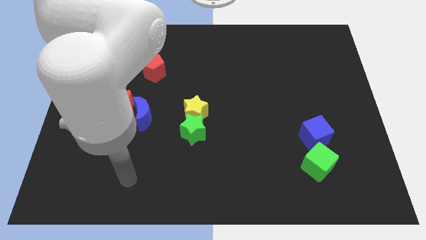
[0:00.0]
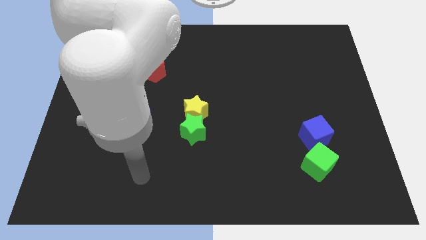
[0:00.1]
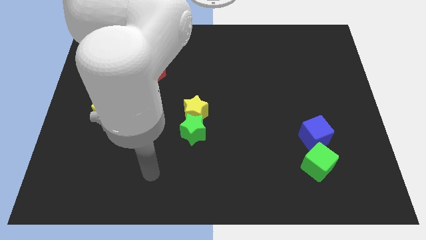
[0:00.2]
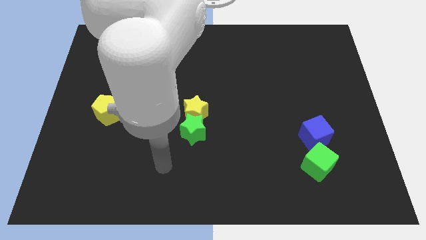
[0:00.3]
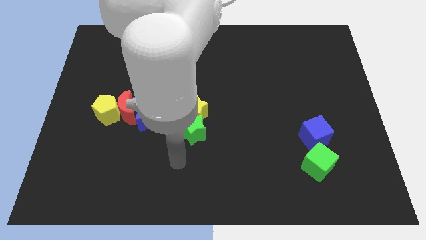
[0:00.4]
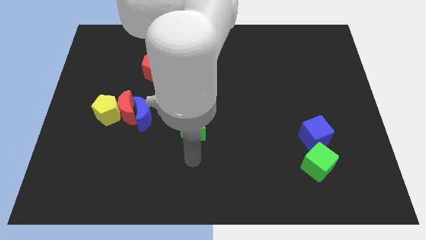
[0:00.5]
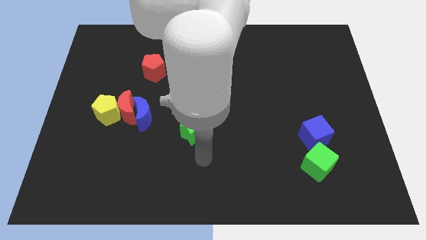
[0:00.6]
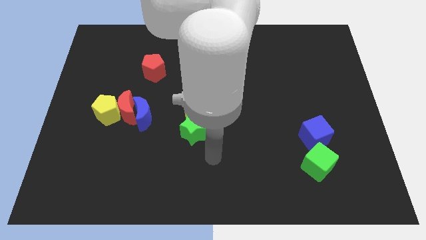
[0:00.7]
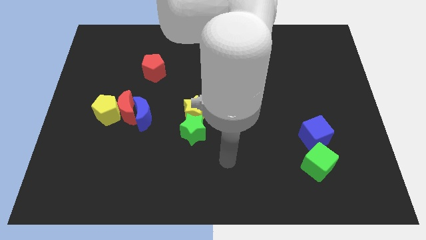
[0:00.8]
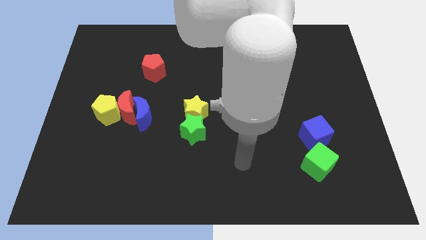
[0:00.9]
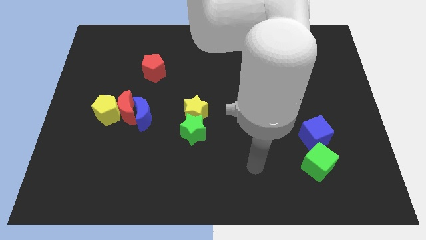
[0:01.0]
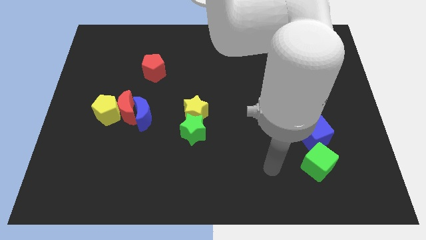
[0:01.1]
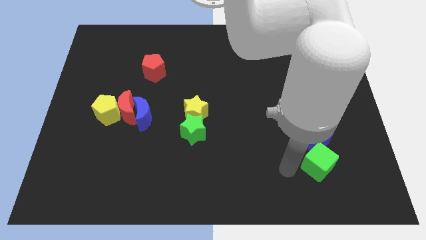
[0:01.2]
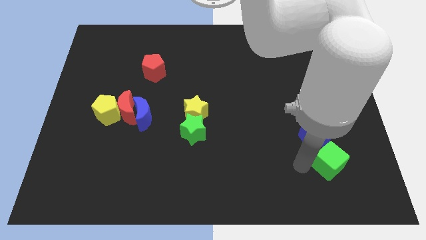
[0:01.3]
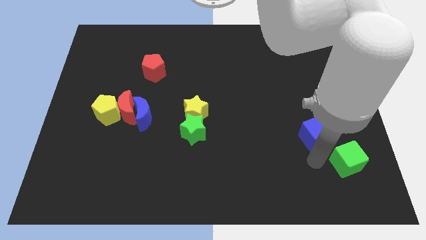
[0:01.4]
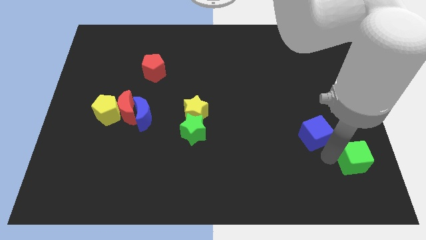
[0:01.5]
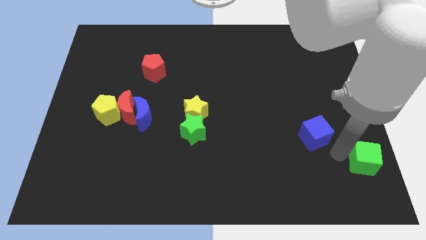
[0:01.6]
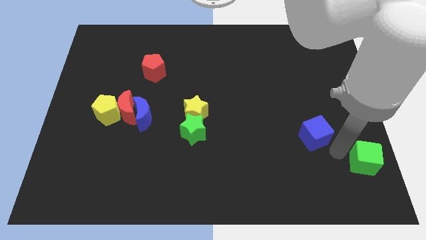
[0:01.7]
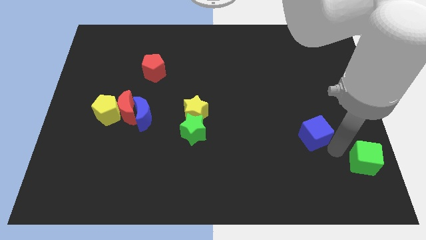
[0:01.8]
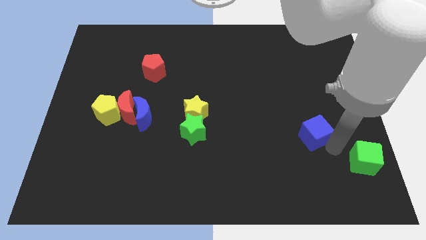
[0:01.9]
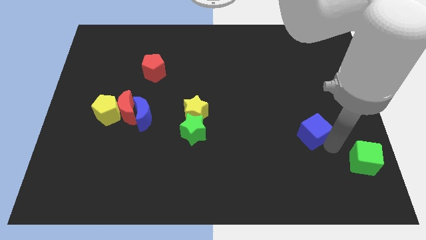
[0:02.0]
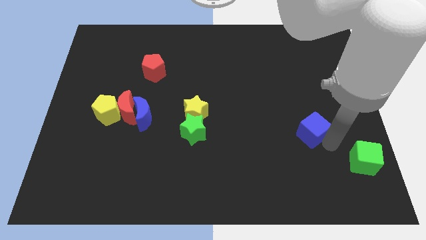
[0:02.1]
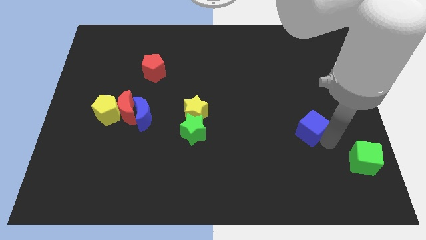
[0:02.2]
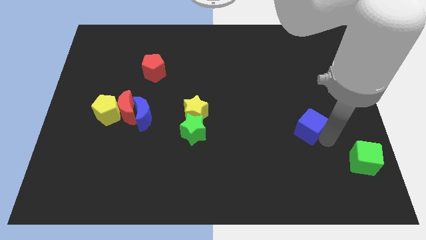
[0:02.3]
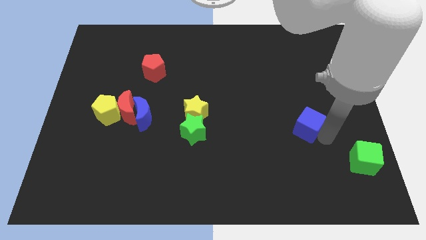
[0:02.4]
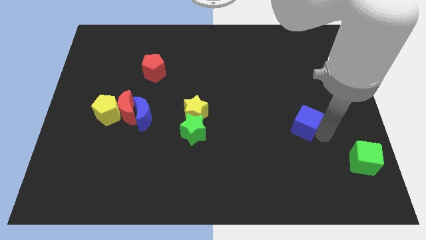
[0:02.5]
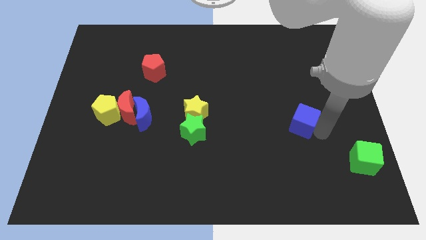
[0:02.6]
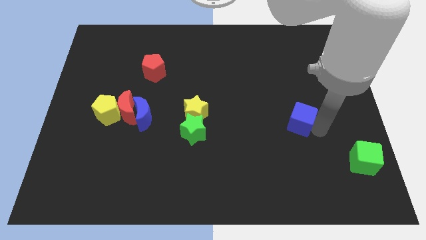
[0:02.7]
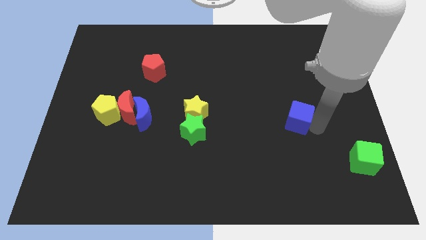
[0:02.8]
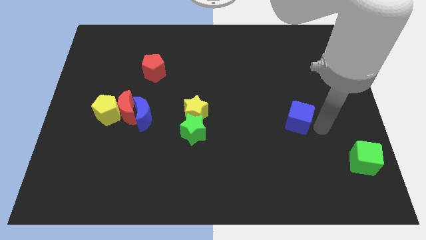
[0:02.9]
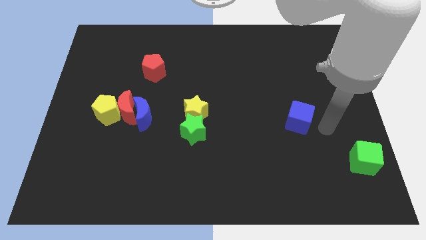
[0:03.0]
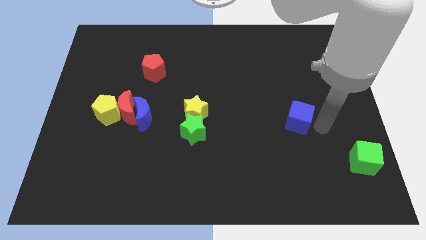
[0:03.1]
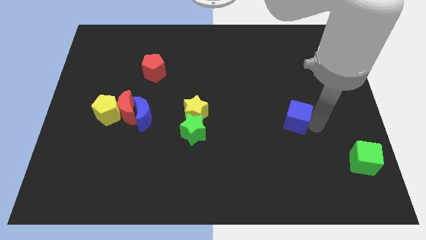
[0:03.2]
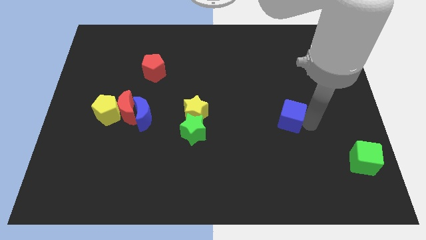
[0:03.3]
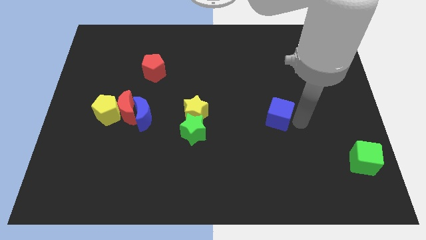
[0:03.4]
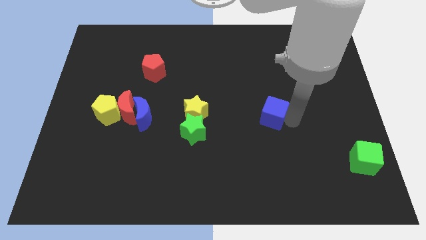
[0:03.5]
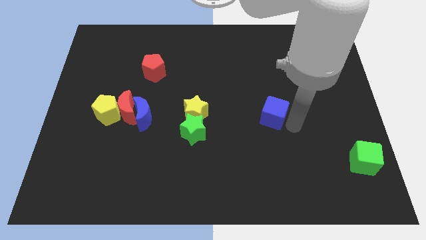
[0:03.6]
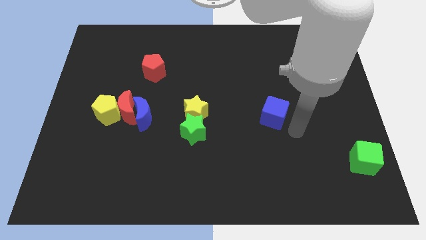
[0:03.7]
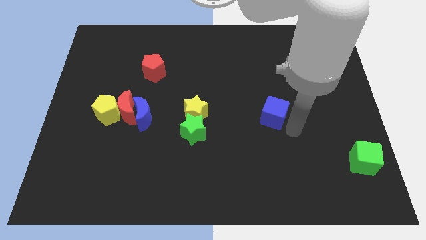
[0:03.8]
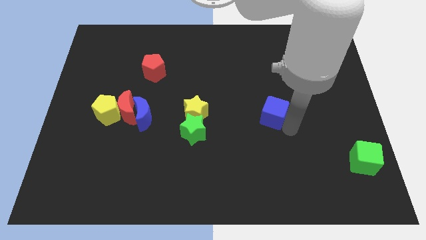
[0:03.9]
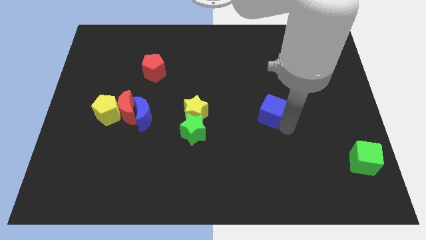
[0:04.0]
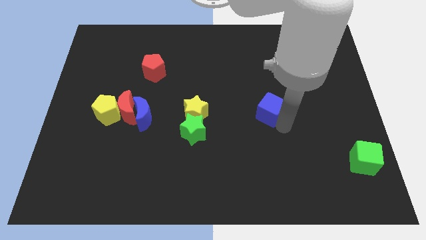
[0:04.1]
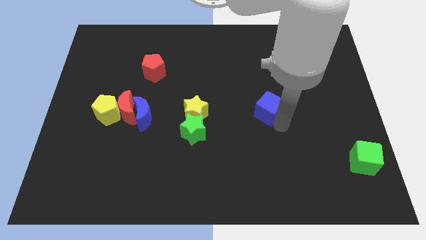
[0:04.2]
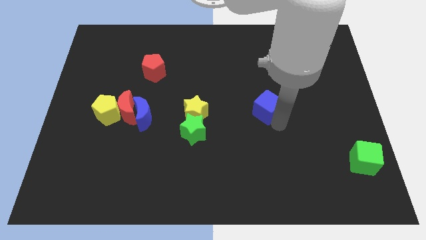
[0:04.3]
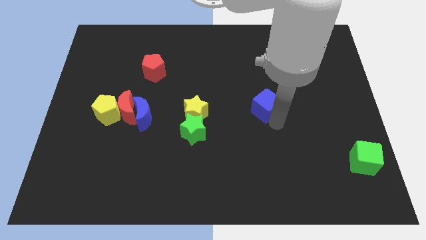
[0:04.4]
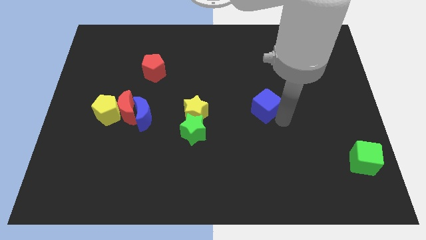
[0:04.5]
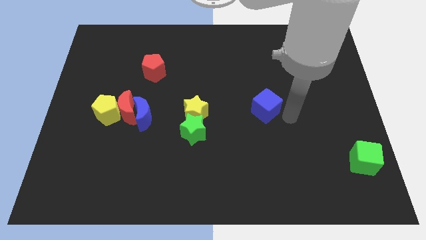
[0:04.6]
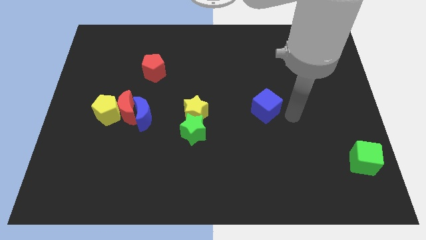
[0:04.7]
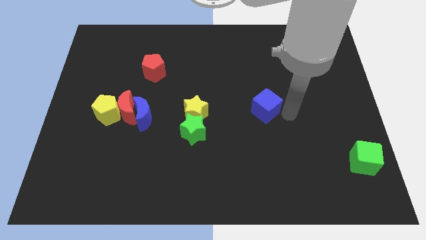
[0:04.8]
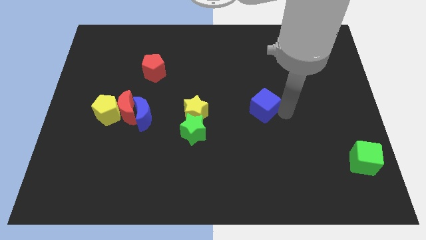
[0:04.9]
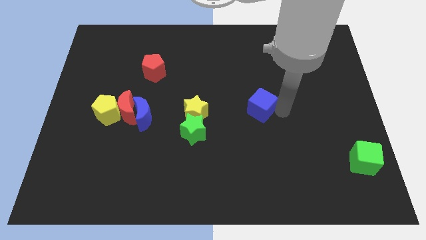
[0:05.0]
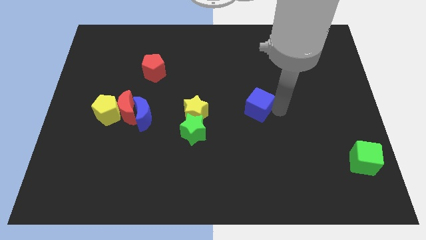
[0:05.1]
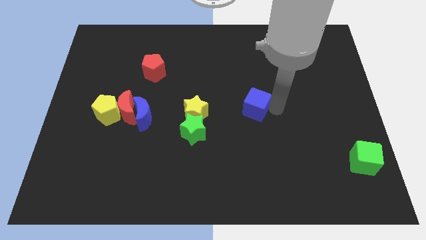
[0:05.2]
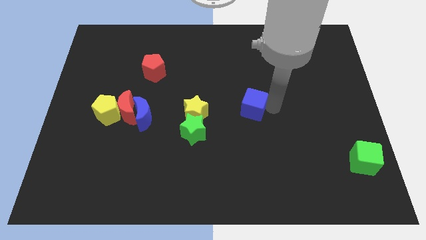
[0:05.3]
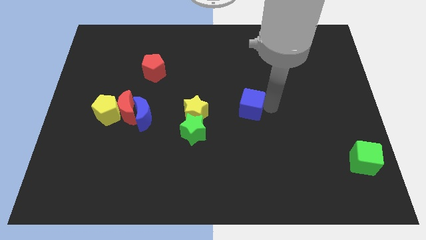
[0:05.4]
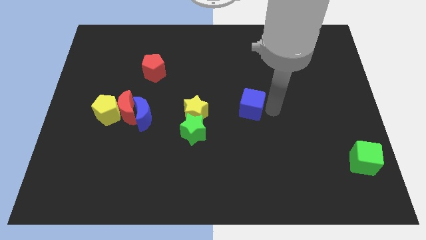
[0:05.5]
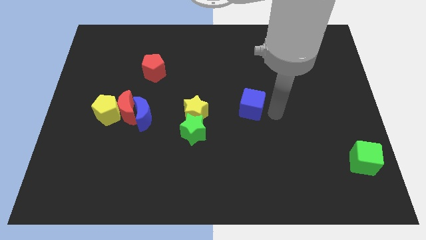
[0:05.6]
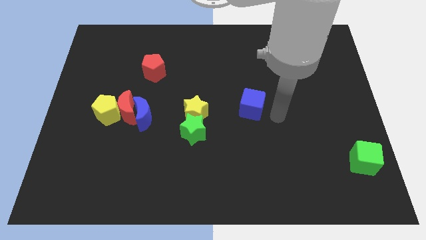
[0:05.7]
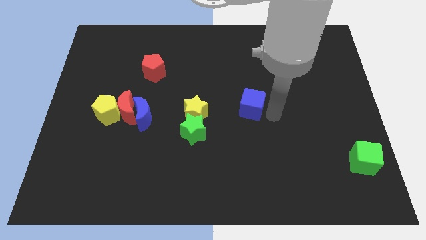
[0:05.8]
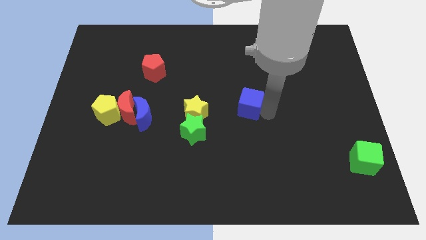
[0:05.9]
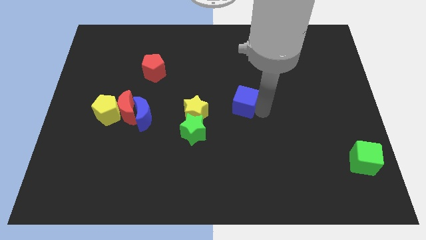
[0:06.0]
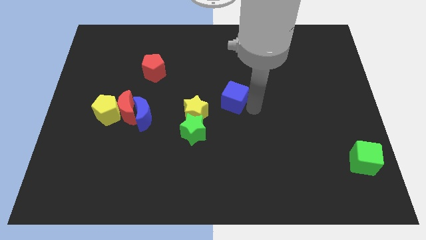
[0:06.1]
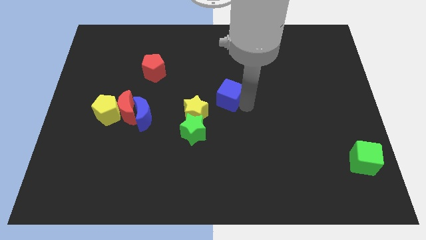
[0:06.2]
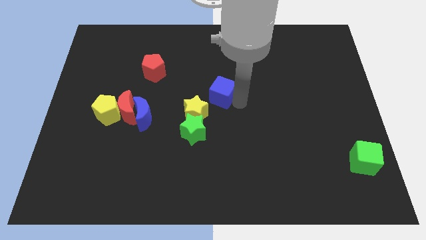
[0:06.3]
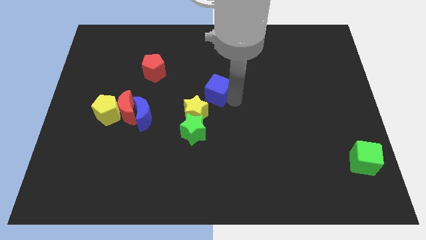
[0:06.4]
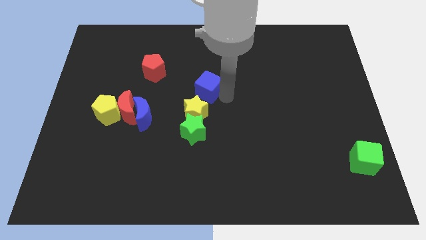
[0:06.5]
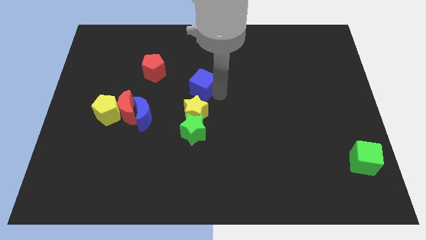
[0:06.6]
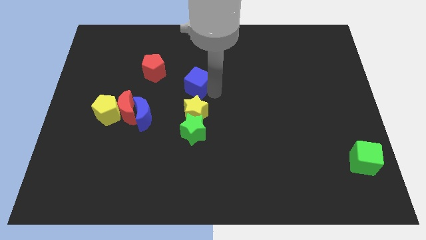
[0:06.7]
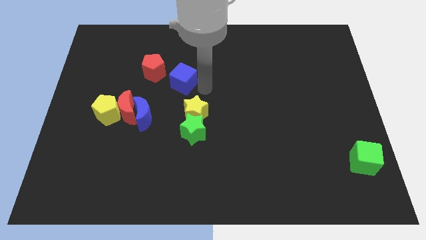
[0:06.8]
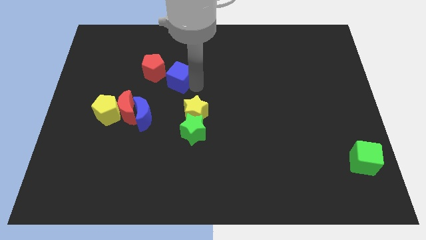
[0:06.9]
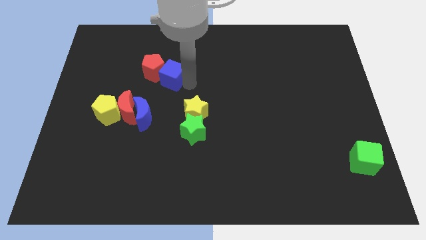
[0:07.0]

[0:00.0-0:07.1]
put the blue cube towards the red pentagon

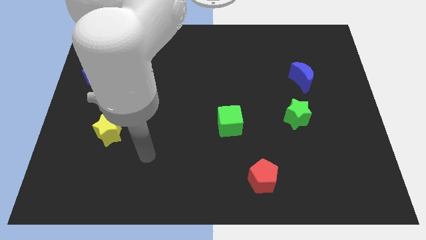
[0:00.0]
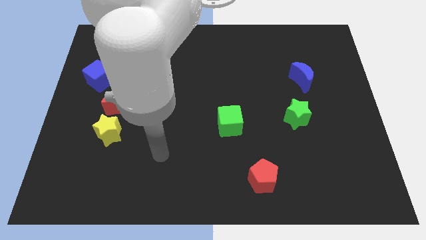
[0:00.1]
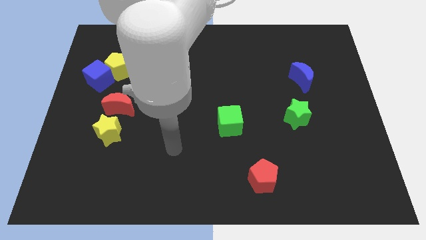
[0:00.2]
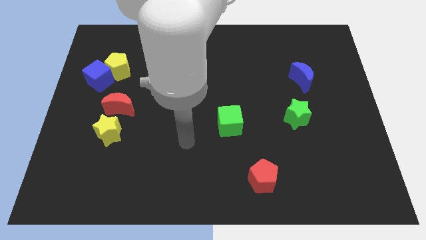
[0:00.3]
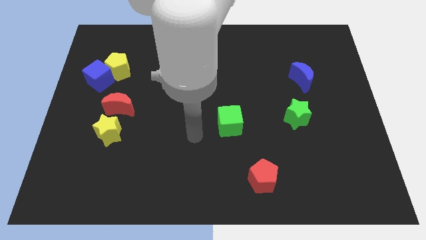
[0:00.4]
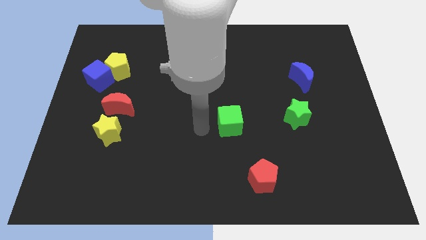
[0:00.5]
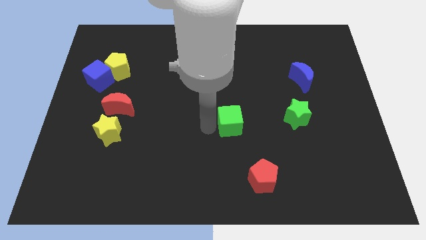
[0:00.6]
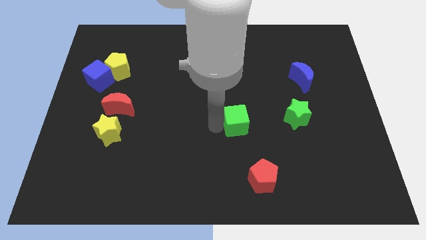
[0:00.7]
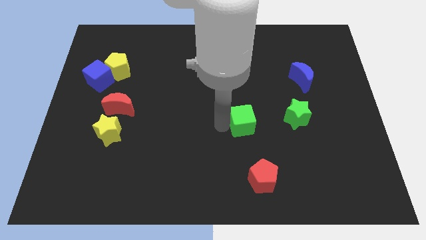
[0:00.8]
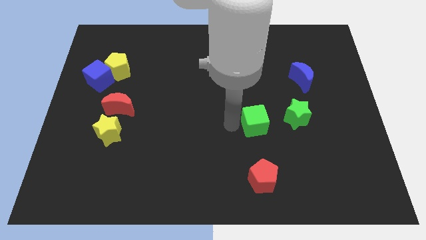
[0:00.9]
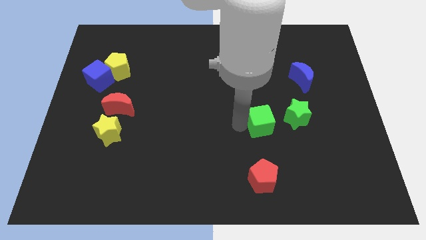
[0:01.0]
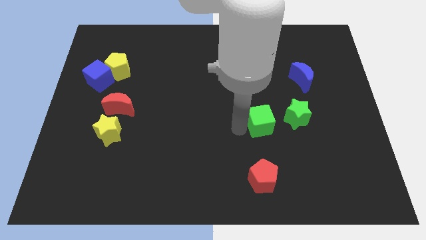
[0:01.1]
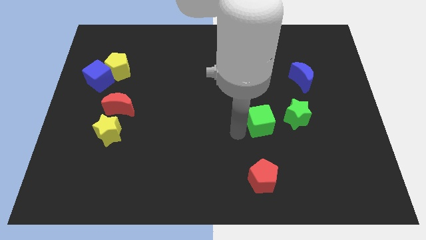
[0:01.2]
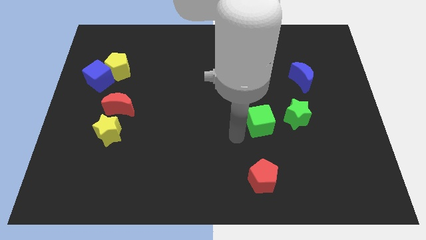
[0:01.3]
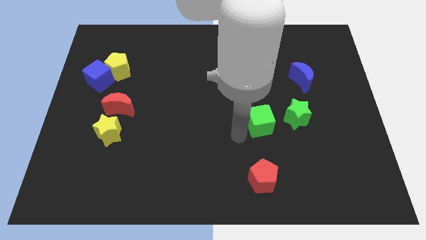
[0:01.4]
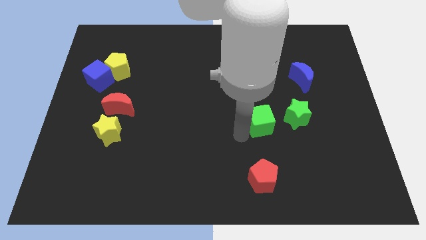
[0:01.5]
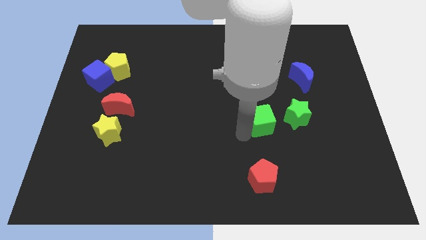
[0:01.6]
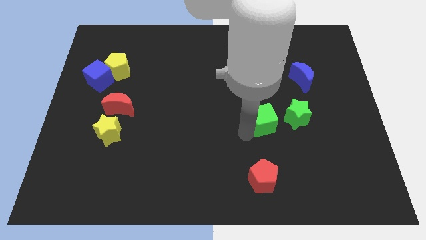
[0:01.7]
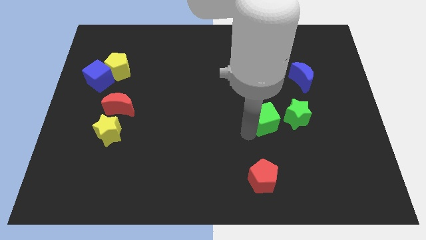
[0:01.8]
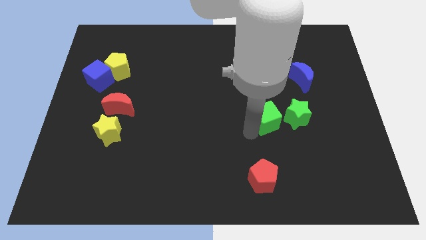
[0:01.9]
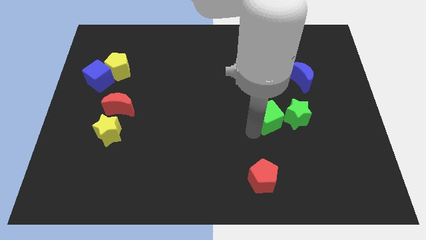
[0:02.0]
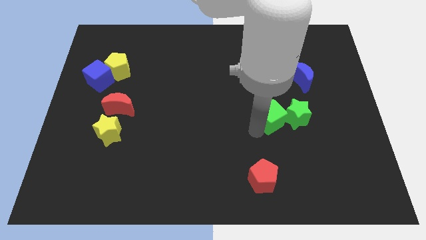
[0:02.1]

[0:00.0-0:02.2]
put the green cube towards the green star
